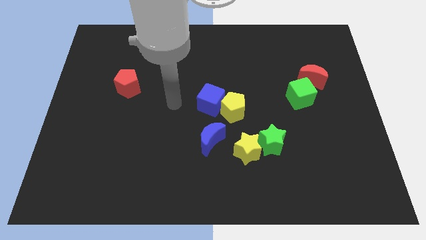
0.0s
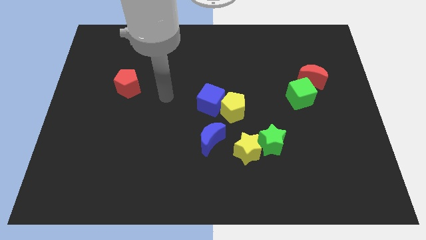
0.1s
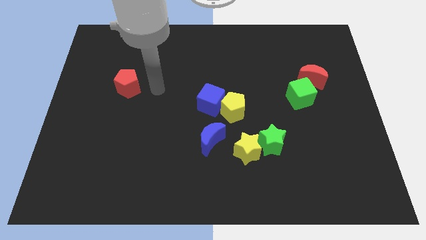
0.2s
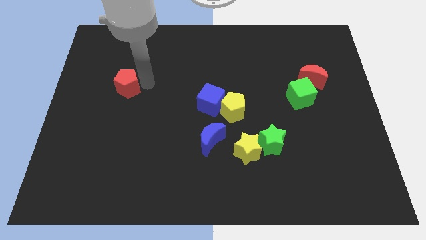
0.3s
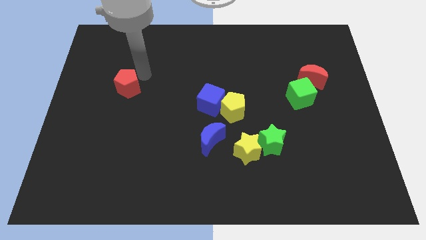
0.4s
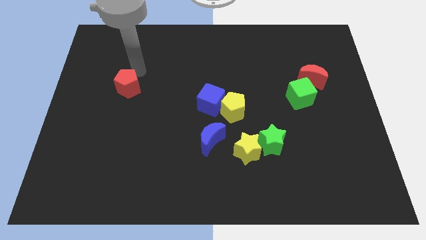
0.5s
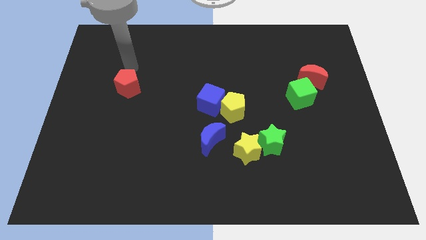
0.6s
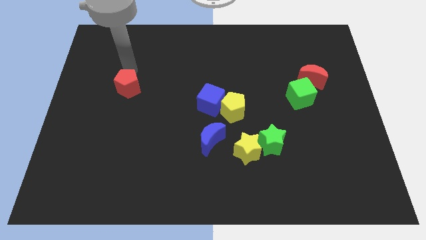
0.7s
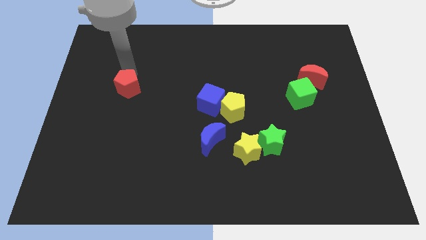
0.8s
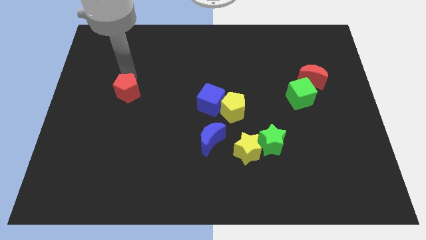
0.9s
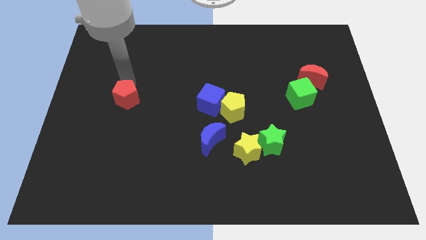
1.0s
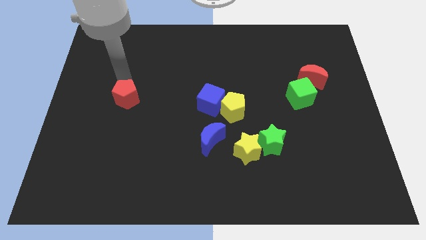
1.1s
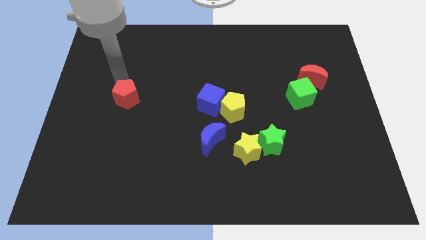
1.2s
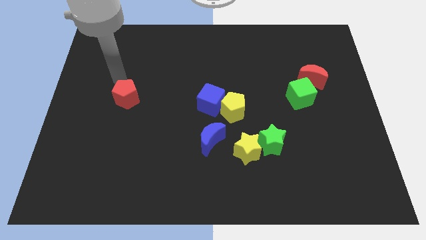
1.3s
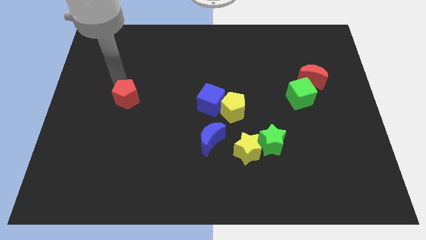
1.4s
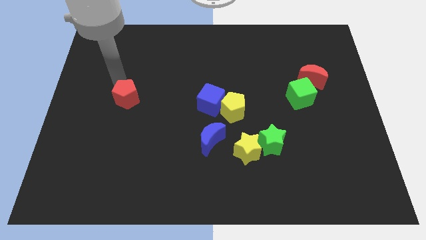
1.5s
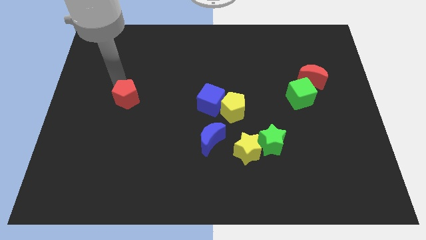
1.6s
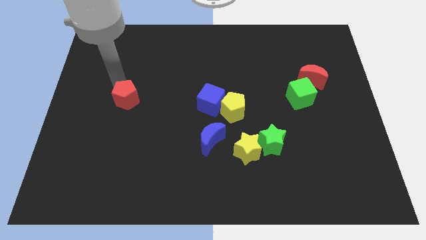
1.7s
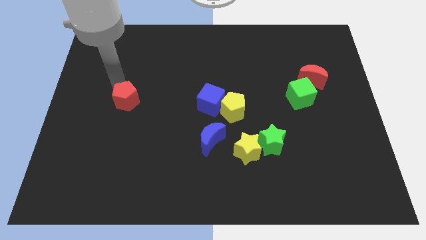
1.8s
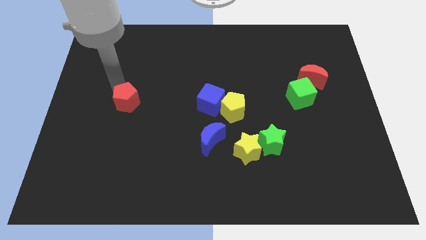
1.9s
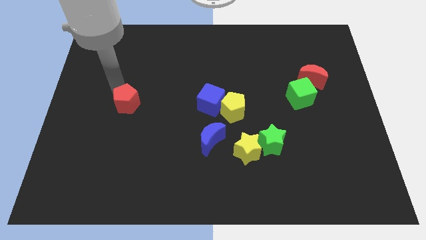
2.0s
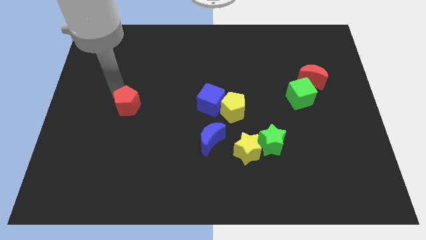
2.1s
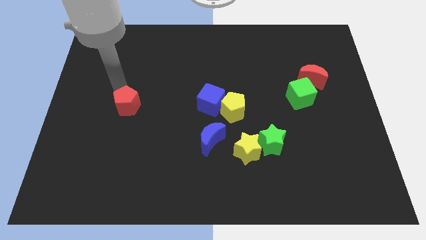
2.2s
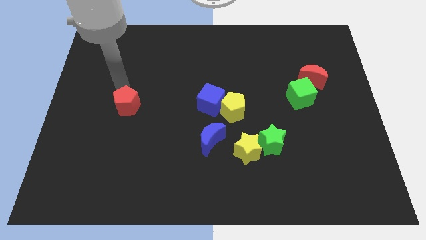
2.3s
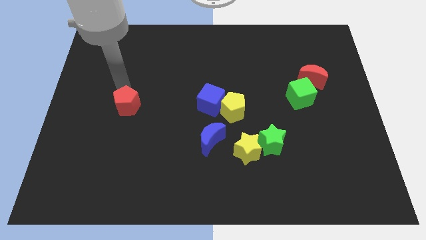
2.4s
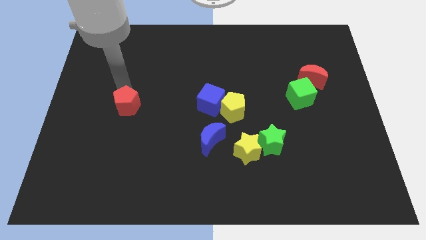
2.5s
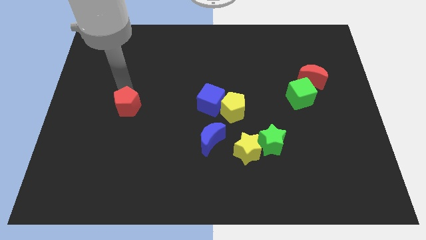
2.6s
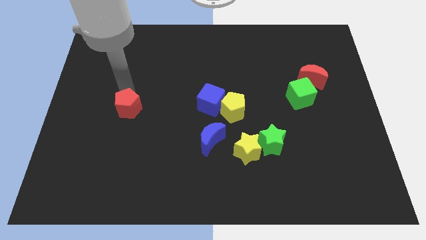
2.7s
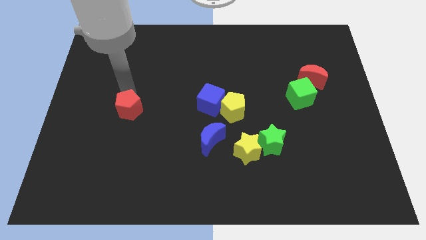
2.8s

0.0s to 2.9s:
slide the red pentagon downwards a bit

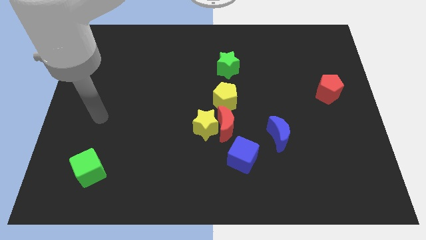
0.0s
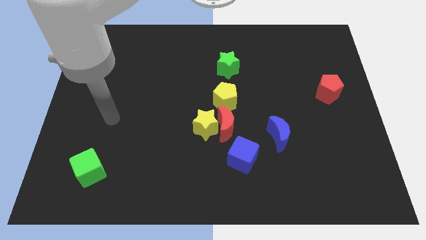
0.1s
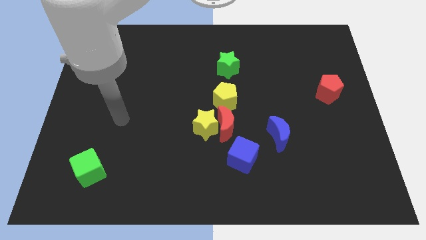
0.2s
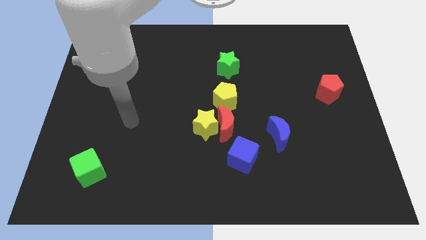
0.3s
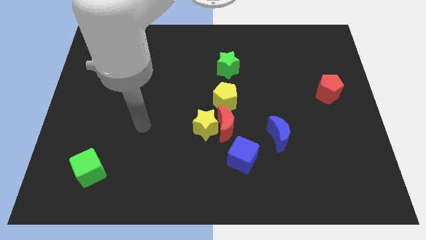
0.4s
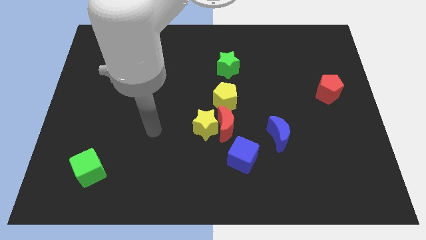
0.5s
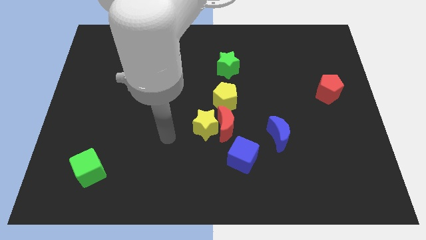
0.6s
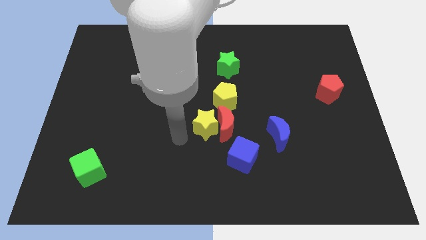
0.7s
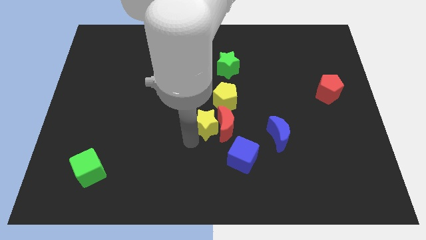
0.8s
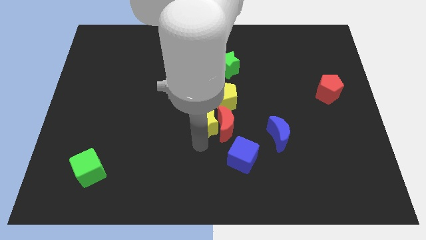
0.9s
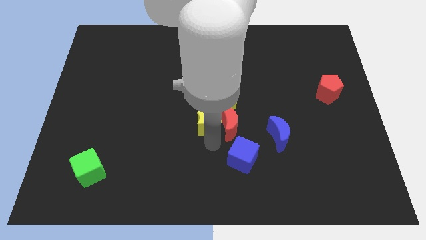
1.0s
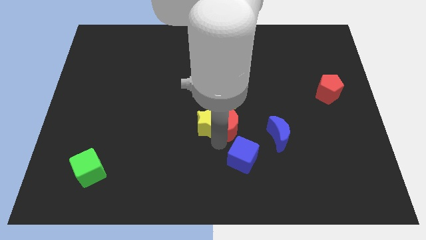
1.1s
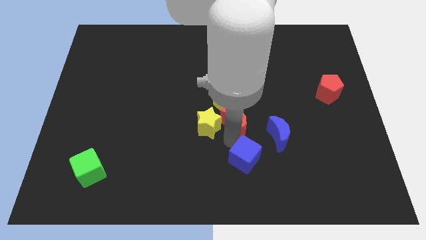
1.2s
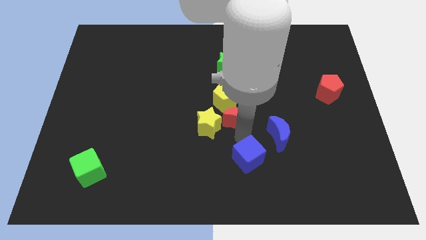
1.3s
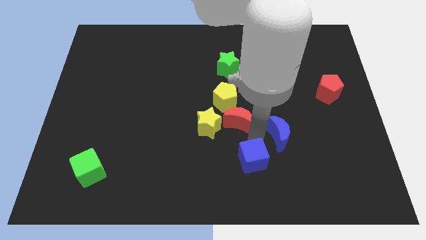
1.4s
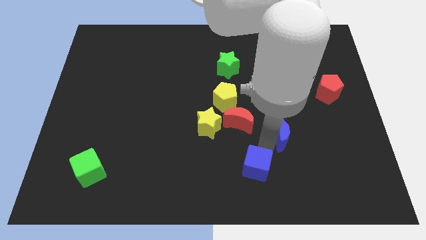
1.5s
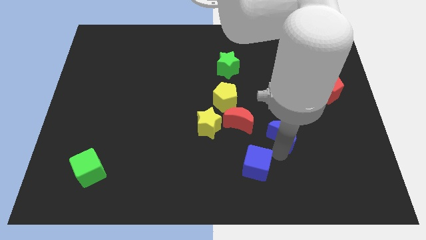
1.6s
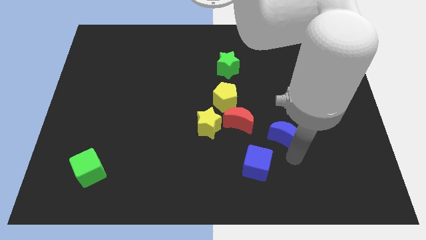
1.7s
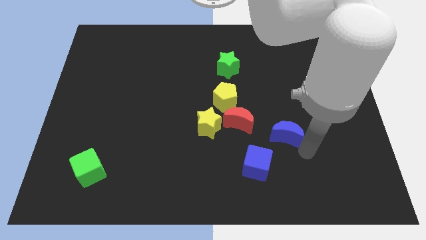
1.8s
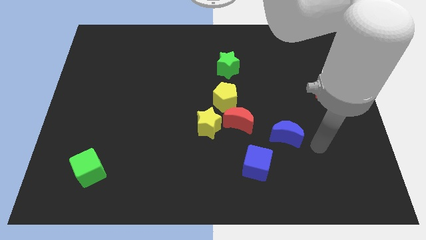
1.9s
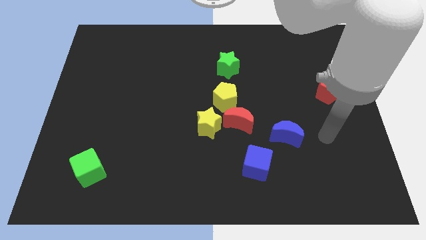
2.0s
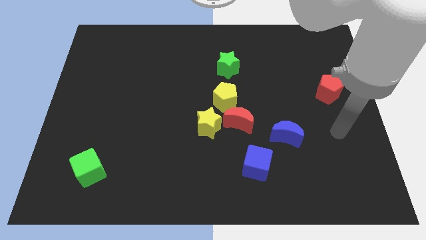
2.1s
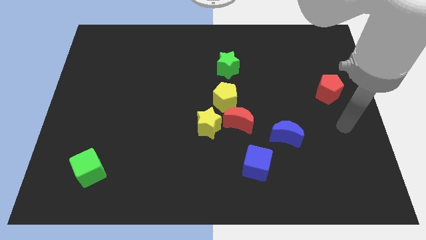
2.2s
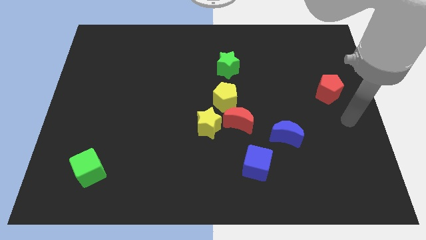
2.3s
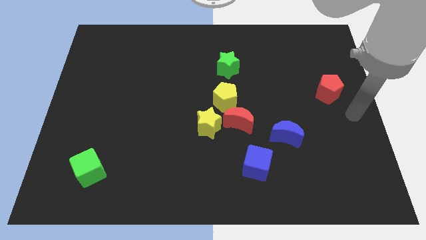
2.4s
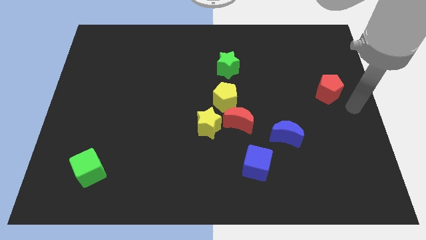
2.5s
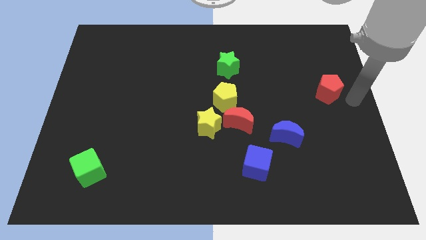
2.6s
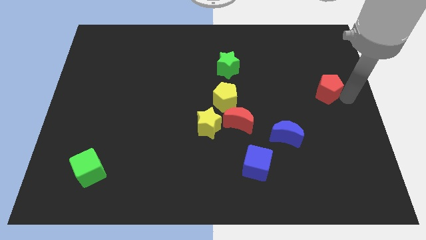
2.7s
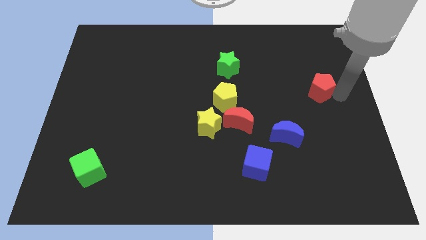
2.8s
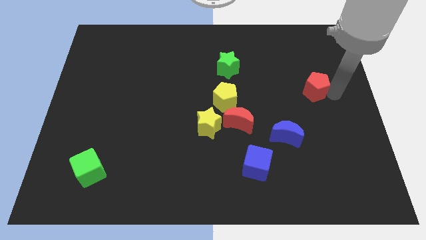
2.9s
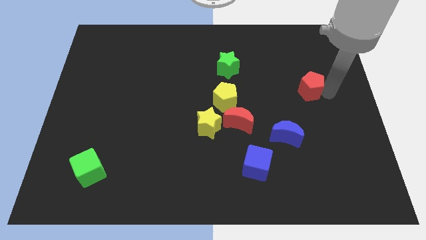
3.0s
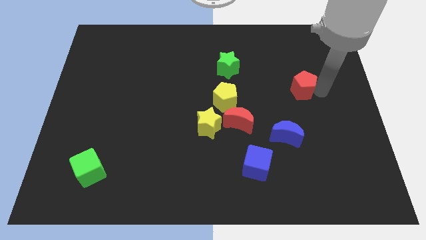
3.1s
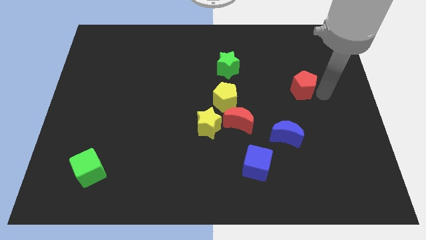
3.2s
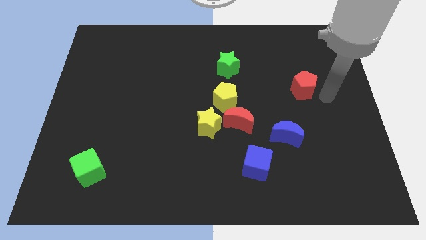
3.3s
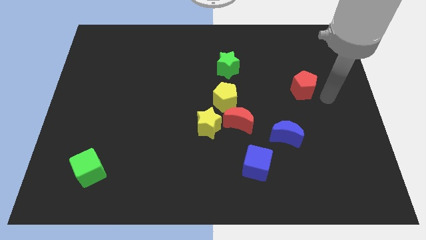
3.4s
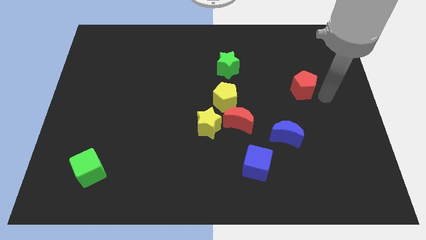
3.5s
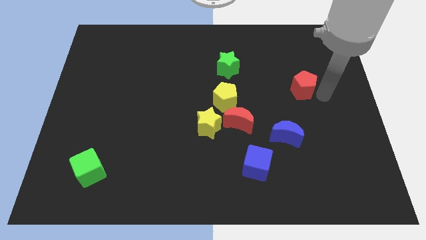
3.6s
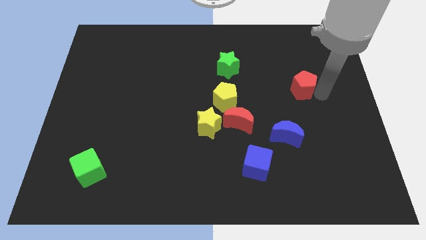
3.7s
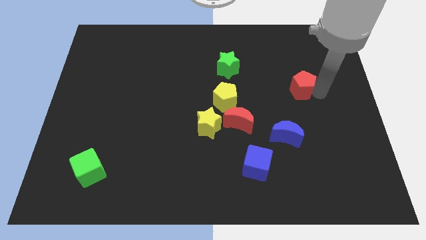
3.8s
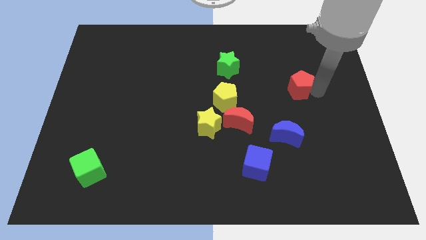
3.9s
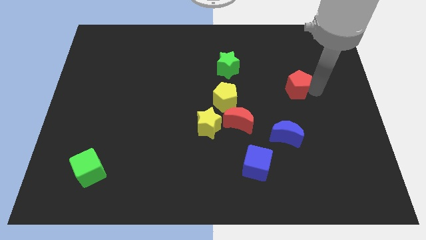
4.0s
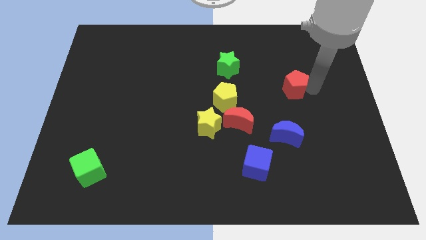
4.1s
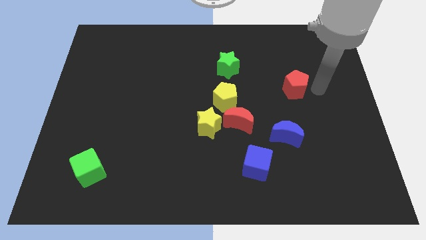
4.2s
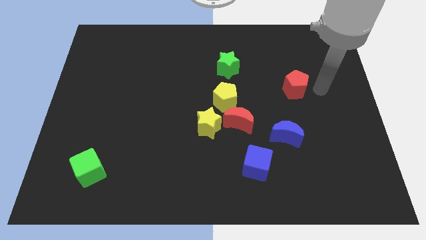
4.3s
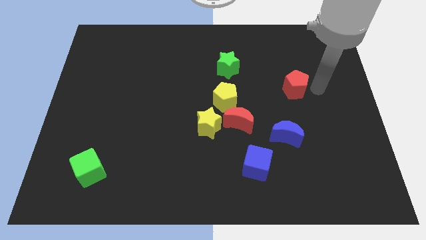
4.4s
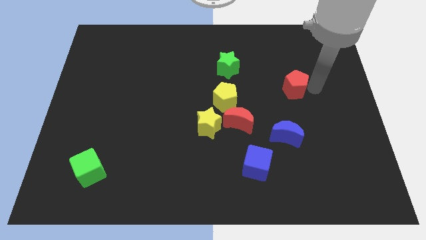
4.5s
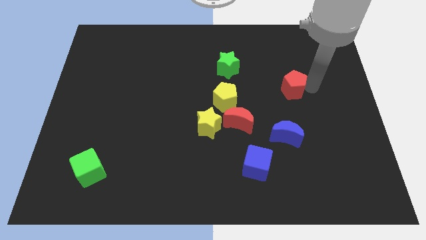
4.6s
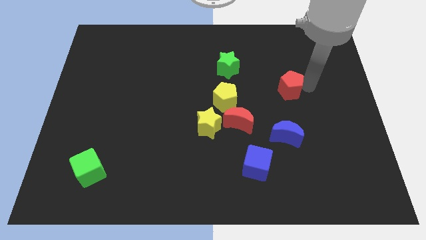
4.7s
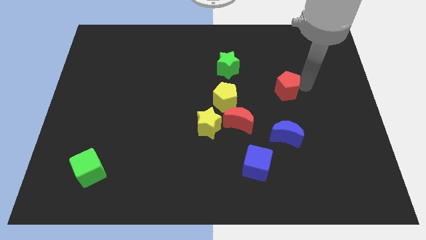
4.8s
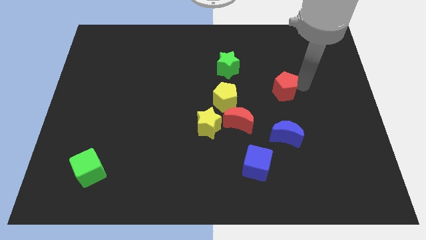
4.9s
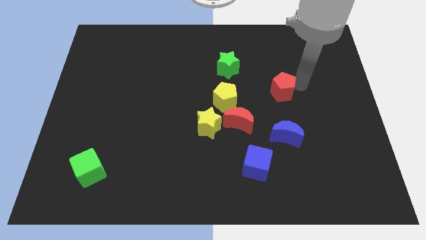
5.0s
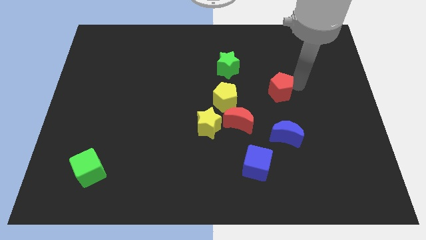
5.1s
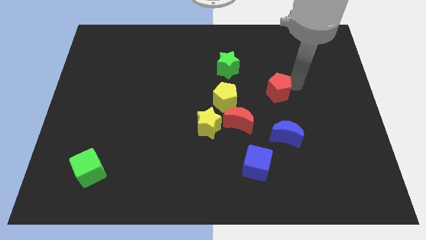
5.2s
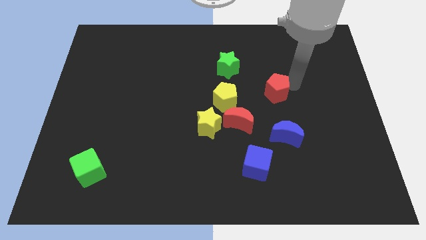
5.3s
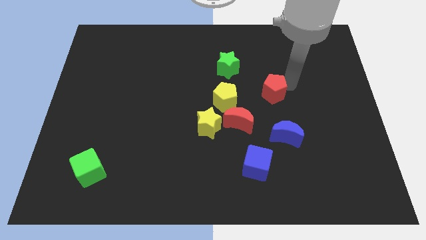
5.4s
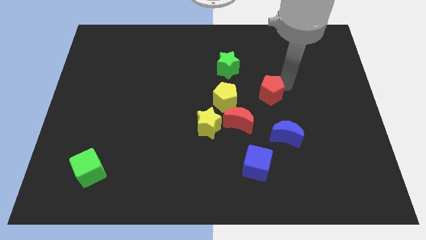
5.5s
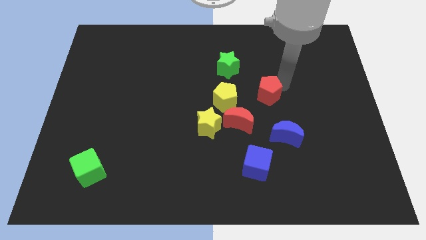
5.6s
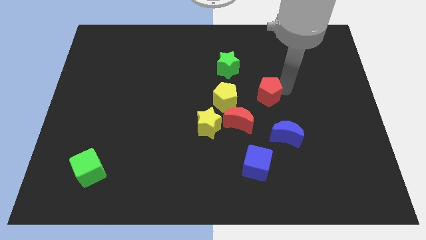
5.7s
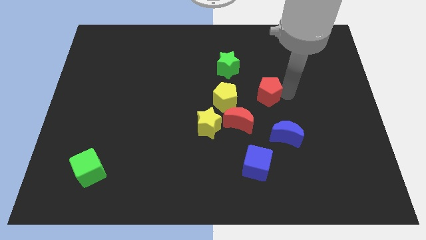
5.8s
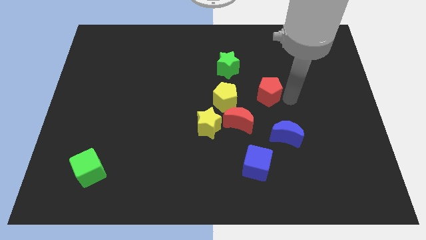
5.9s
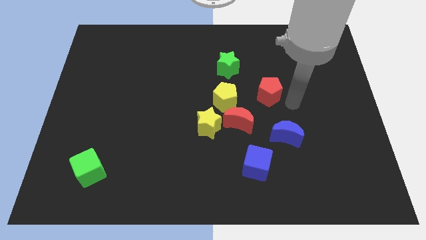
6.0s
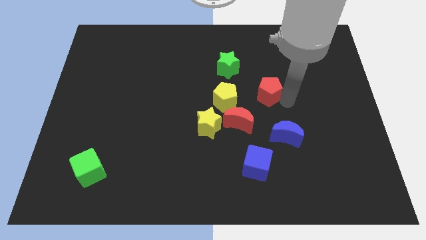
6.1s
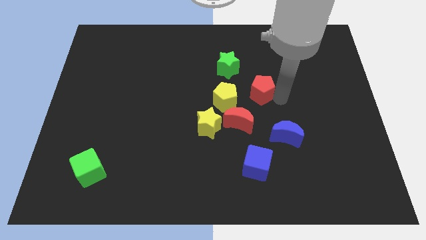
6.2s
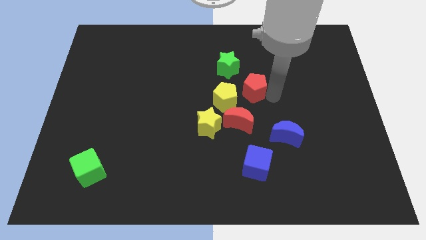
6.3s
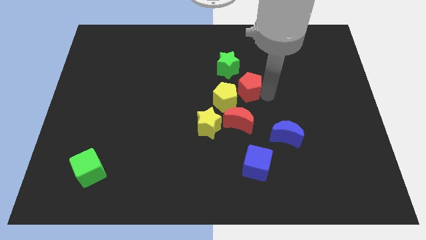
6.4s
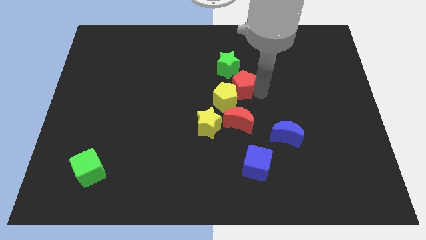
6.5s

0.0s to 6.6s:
slide the red pentagon left
